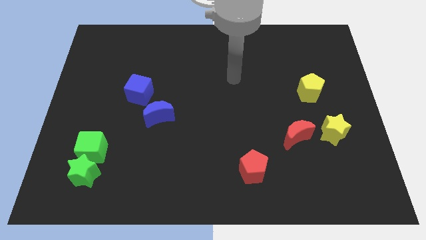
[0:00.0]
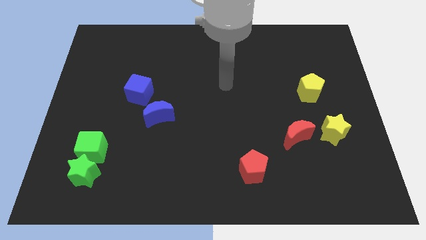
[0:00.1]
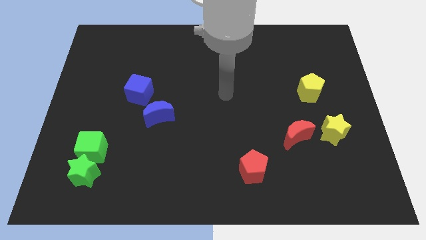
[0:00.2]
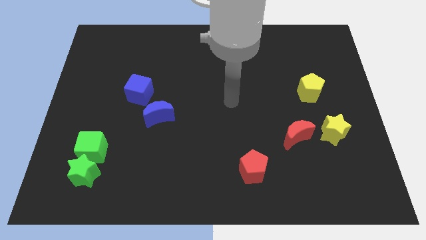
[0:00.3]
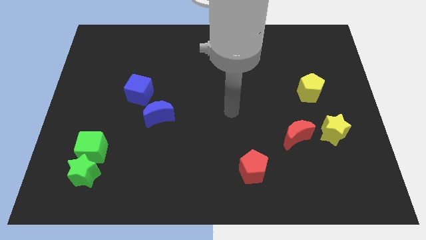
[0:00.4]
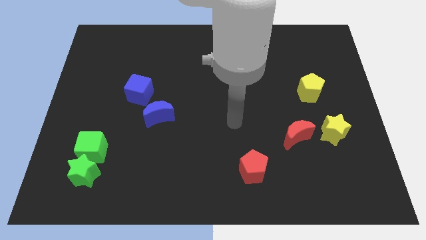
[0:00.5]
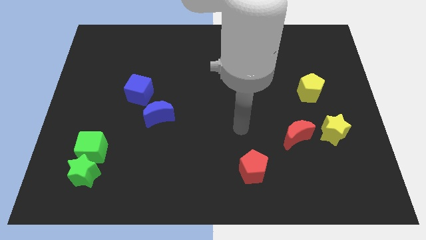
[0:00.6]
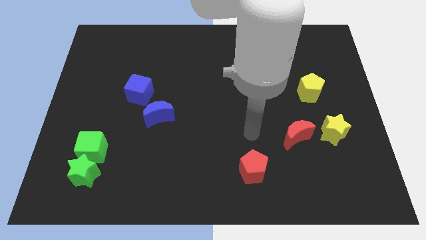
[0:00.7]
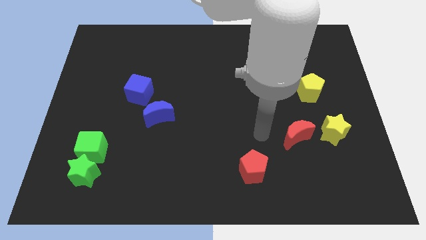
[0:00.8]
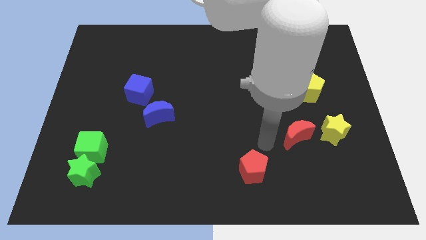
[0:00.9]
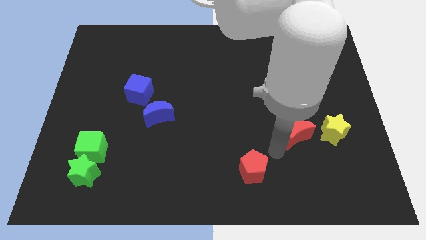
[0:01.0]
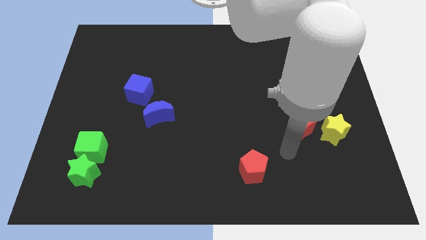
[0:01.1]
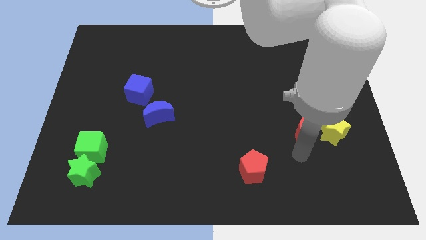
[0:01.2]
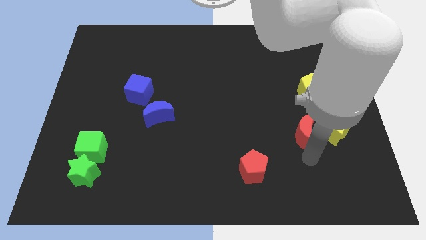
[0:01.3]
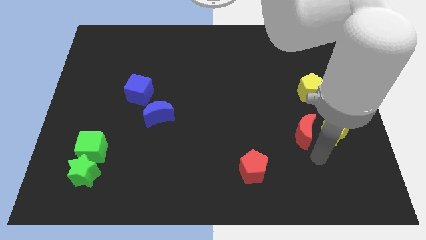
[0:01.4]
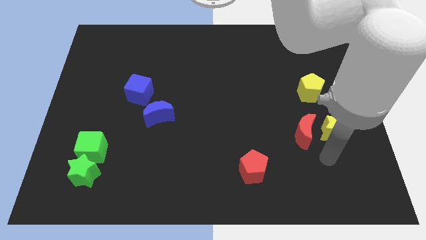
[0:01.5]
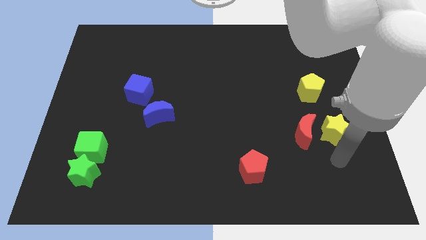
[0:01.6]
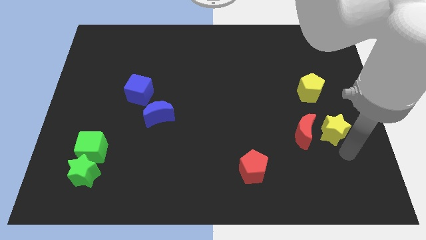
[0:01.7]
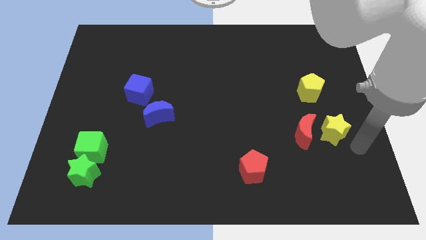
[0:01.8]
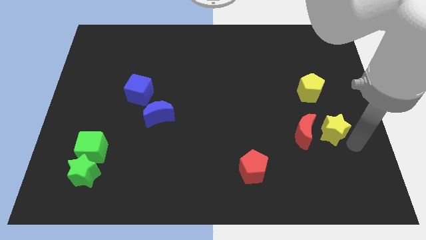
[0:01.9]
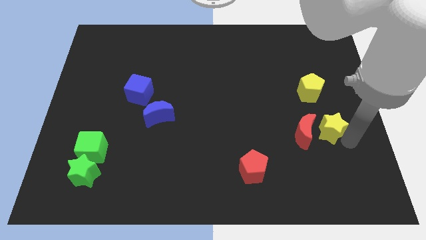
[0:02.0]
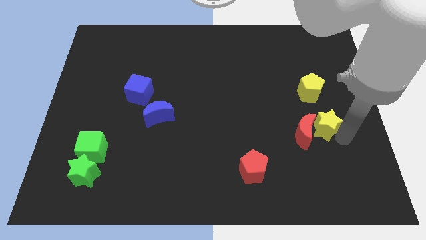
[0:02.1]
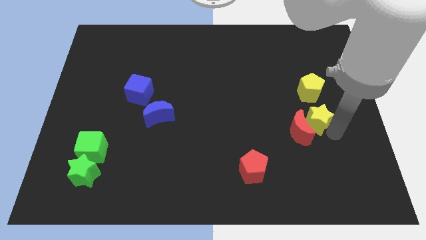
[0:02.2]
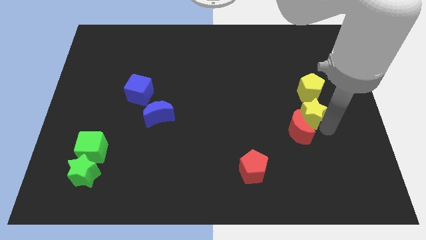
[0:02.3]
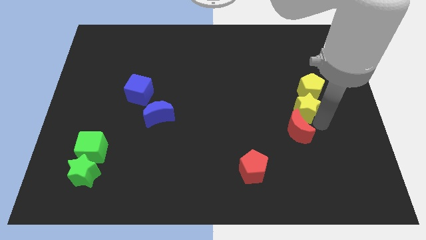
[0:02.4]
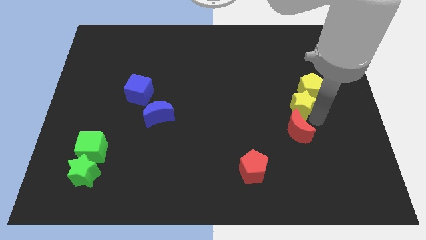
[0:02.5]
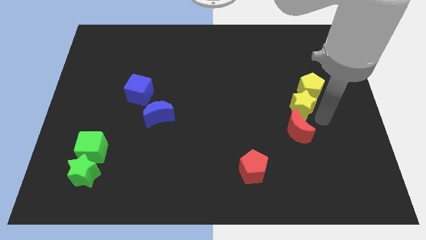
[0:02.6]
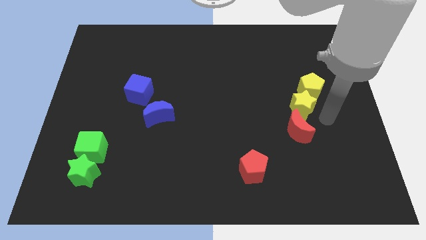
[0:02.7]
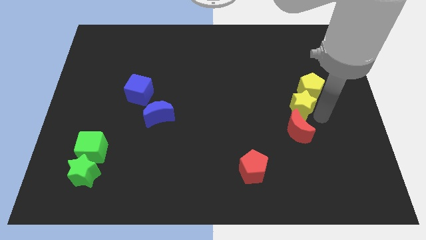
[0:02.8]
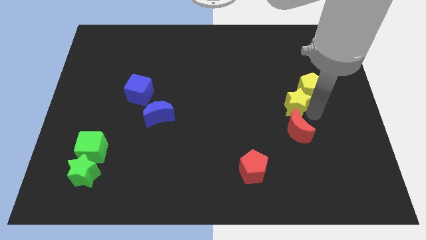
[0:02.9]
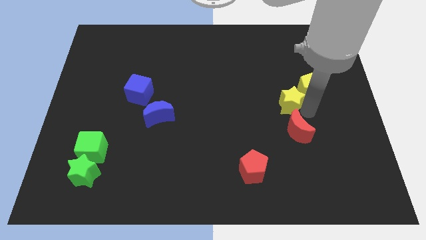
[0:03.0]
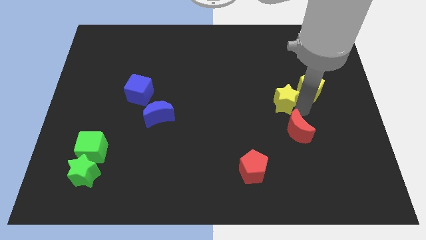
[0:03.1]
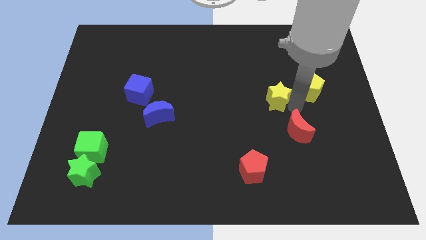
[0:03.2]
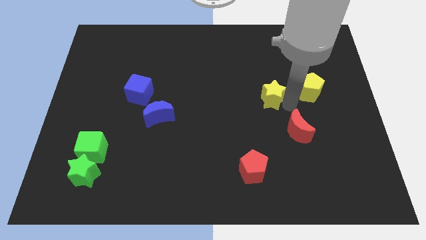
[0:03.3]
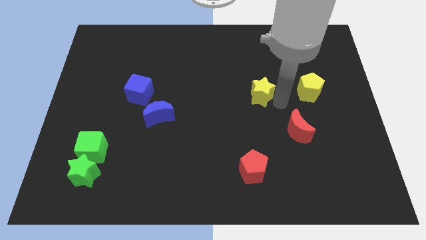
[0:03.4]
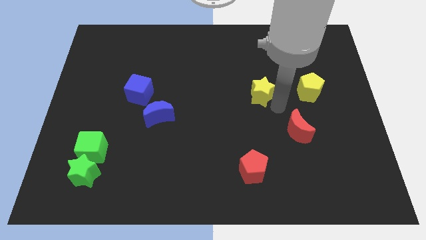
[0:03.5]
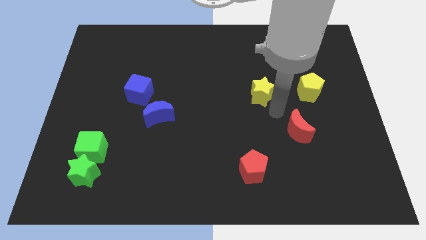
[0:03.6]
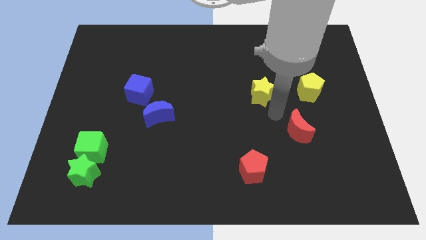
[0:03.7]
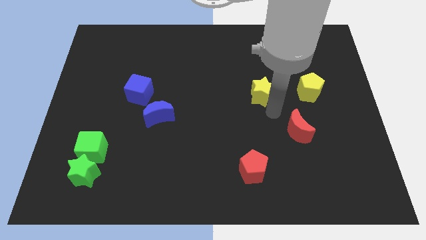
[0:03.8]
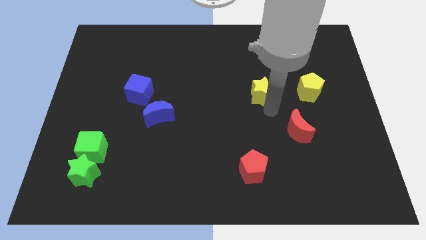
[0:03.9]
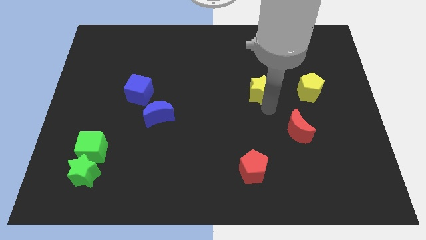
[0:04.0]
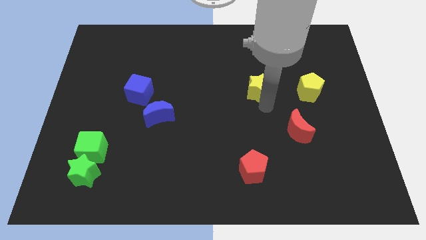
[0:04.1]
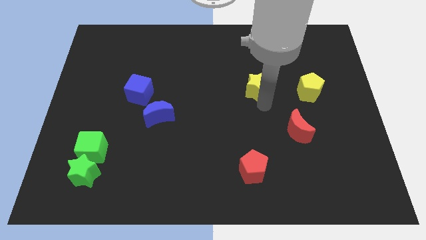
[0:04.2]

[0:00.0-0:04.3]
move the yellow star upwards and then to the left

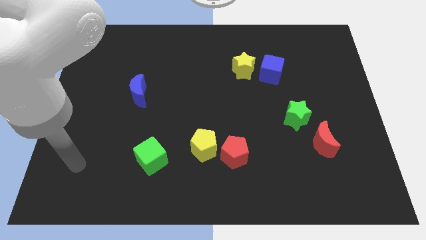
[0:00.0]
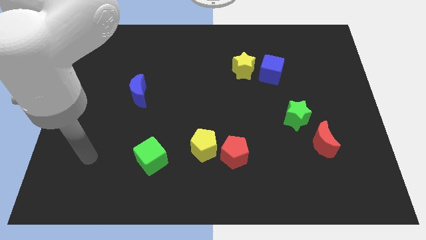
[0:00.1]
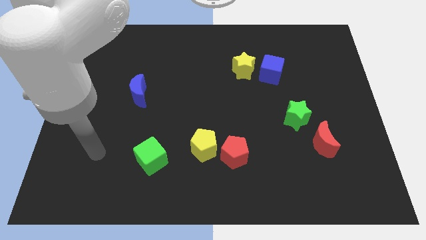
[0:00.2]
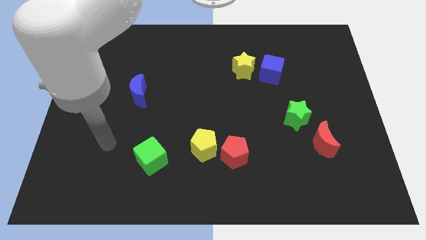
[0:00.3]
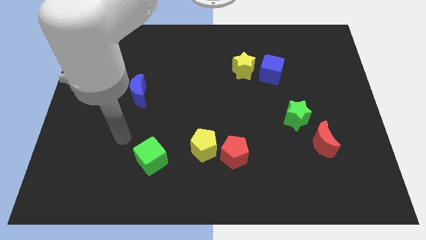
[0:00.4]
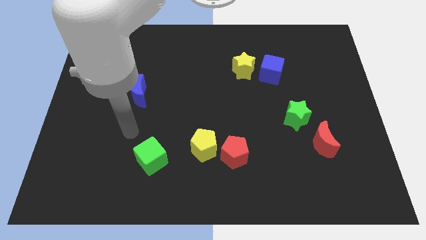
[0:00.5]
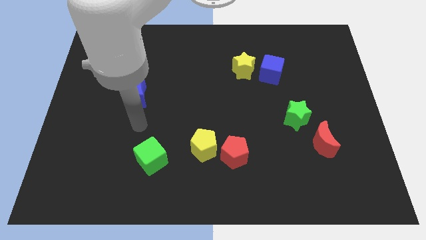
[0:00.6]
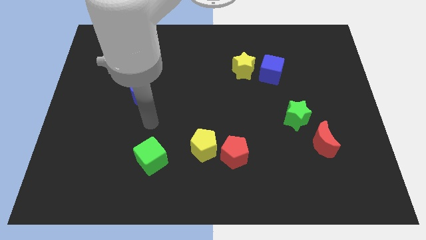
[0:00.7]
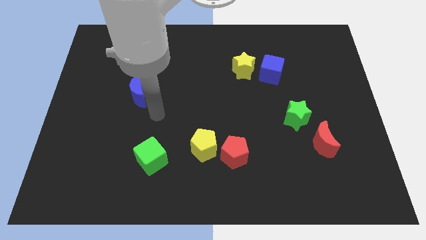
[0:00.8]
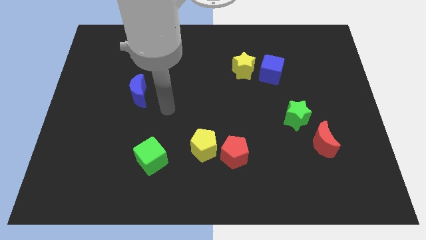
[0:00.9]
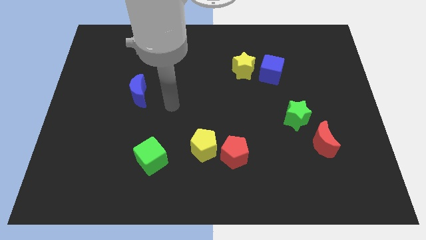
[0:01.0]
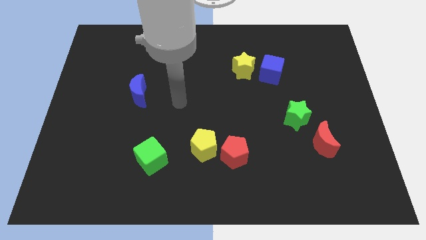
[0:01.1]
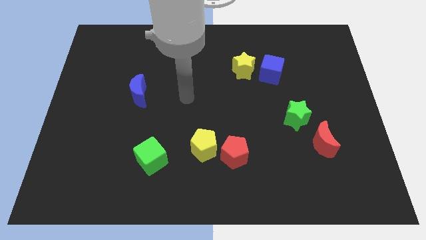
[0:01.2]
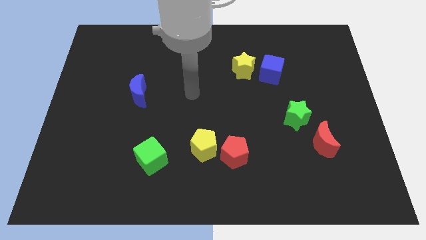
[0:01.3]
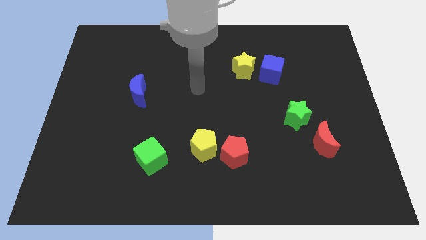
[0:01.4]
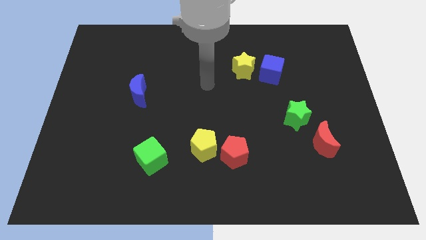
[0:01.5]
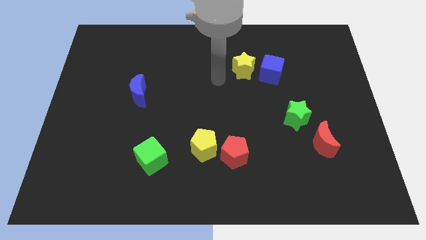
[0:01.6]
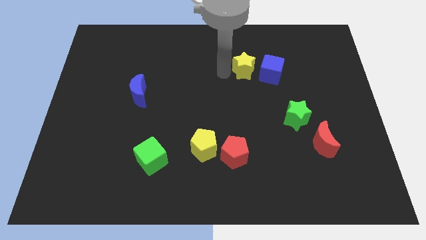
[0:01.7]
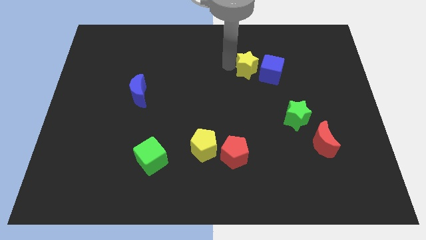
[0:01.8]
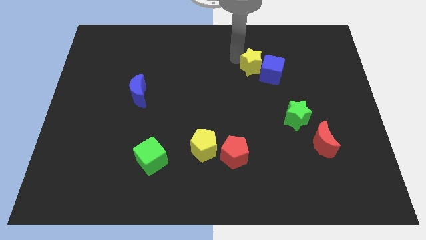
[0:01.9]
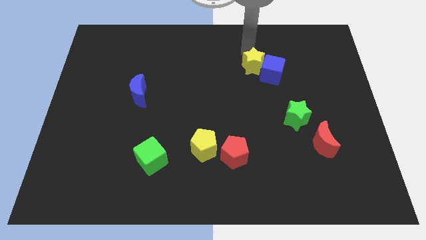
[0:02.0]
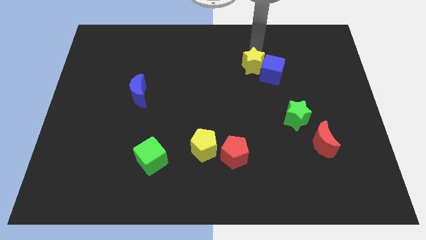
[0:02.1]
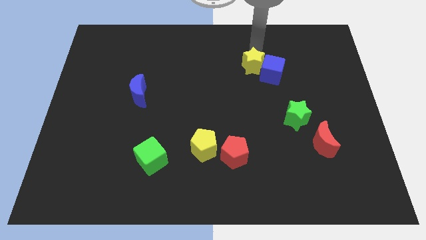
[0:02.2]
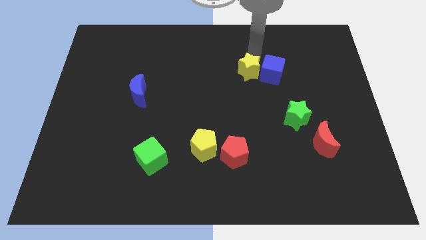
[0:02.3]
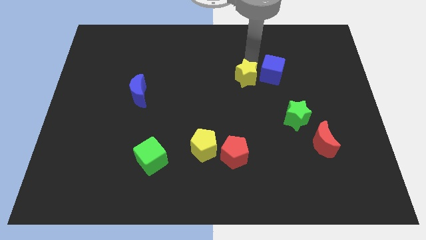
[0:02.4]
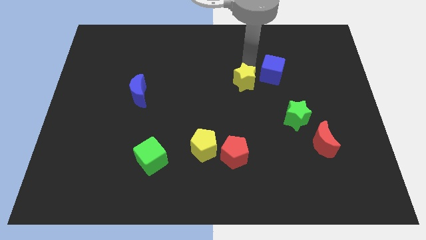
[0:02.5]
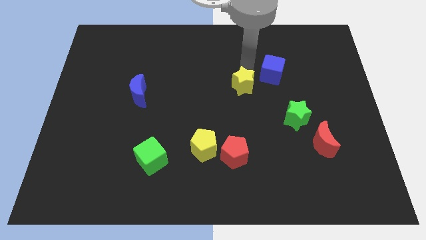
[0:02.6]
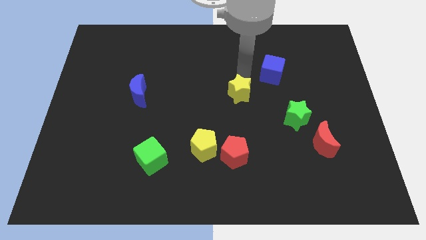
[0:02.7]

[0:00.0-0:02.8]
push the yellow star down a bit

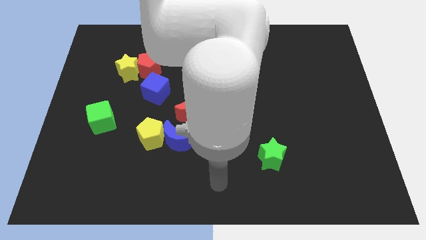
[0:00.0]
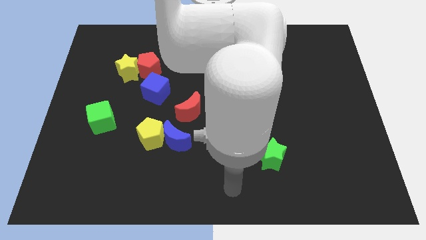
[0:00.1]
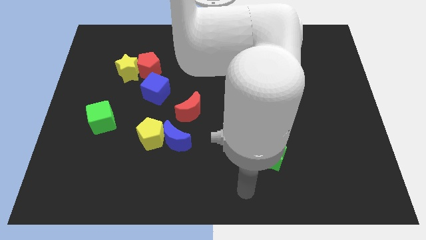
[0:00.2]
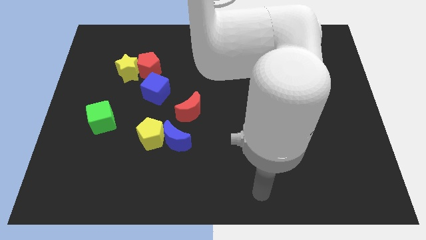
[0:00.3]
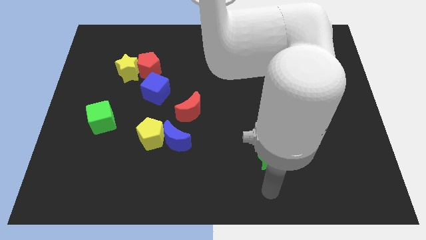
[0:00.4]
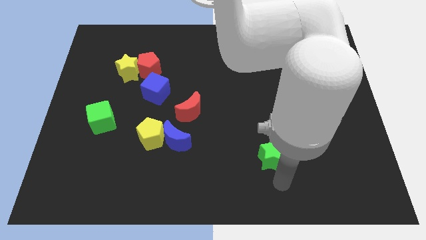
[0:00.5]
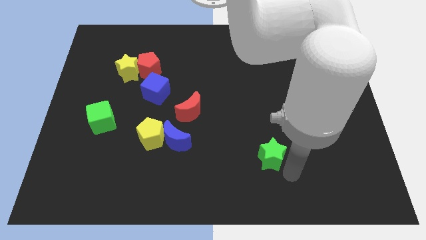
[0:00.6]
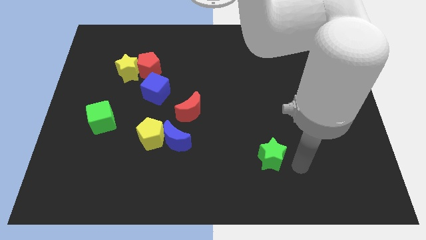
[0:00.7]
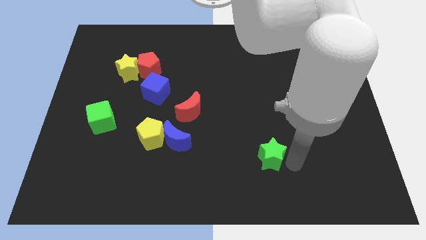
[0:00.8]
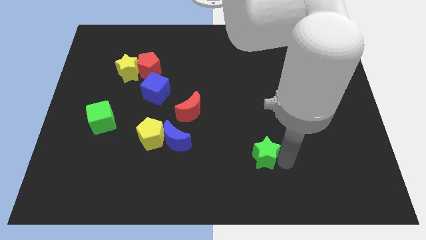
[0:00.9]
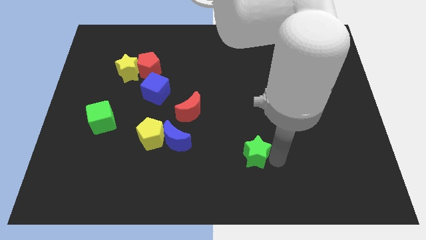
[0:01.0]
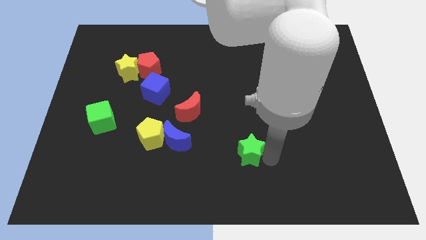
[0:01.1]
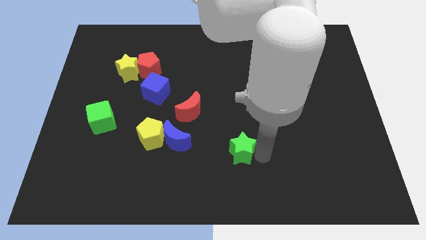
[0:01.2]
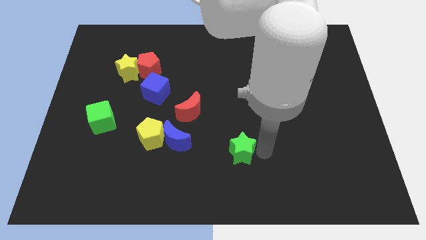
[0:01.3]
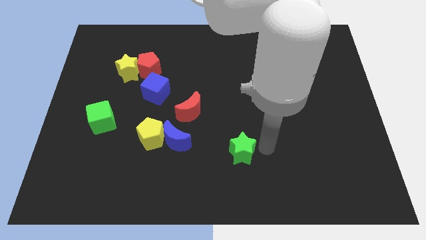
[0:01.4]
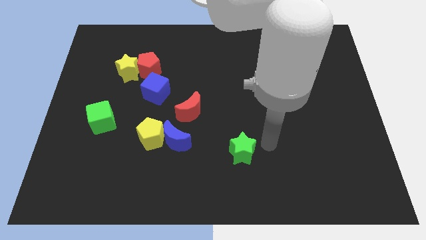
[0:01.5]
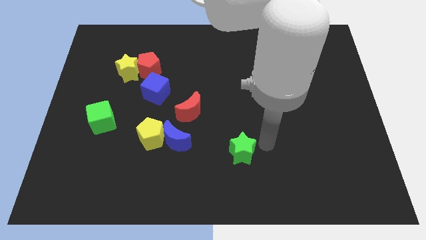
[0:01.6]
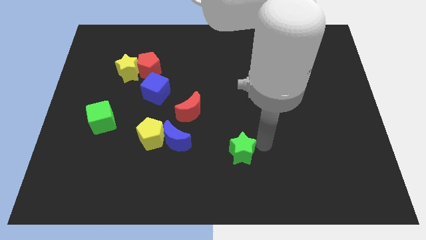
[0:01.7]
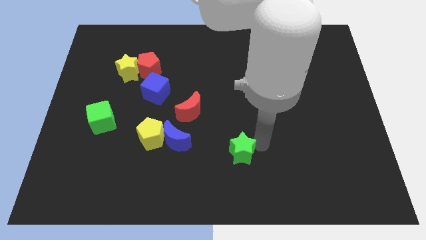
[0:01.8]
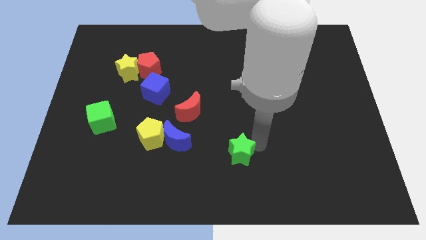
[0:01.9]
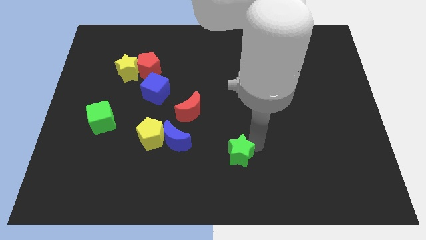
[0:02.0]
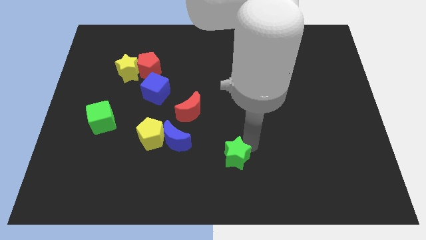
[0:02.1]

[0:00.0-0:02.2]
slide the green star a little bit left
